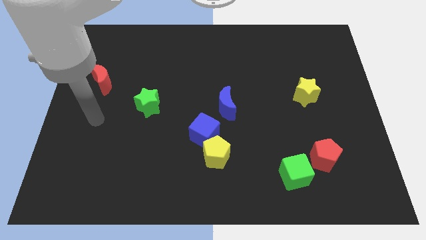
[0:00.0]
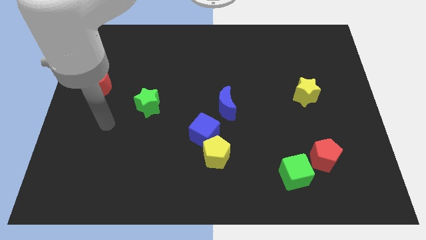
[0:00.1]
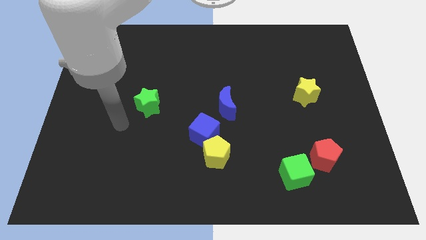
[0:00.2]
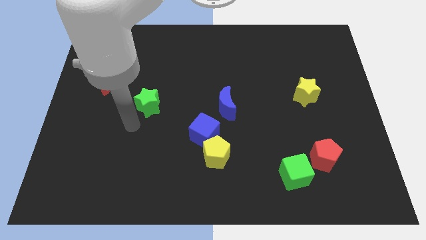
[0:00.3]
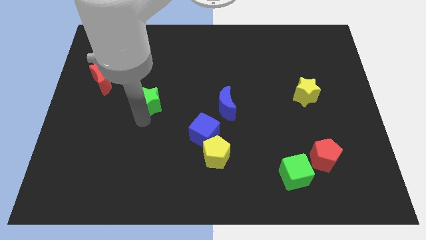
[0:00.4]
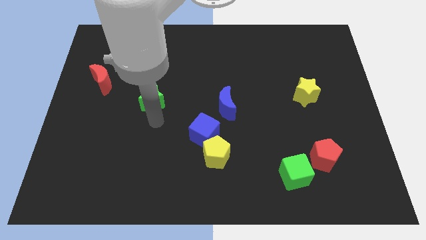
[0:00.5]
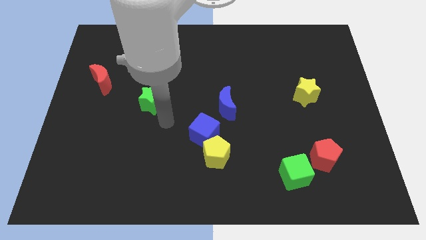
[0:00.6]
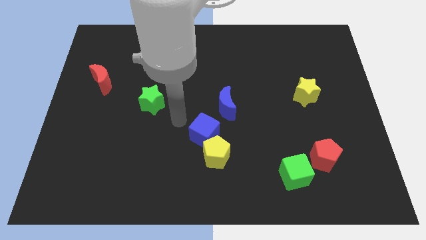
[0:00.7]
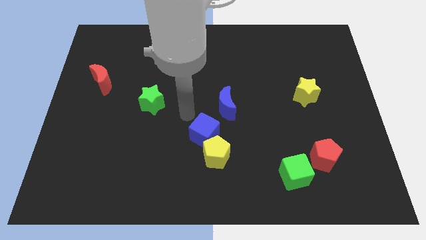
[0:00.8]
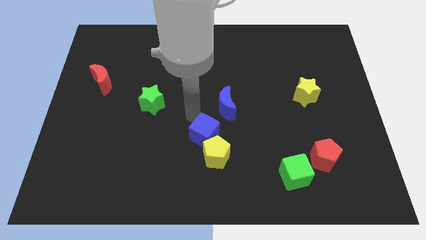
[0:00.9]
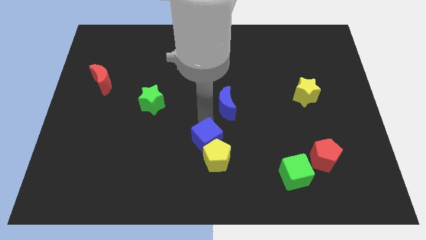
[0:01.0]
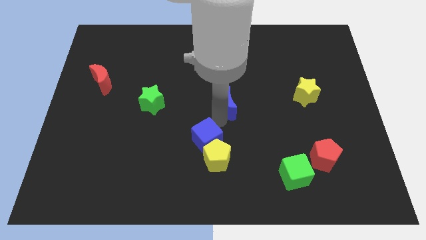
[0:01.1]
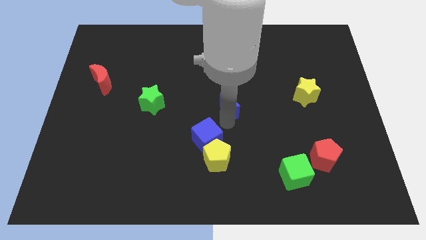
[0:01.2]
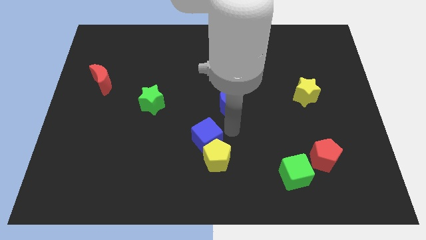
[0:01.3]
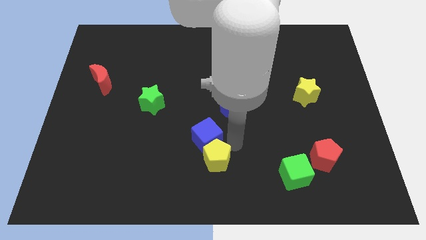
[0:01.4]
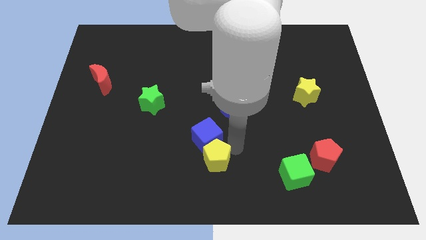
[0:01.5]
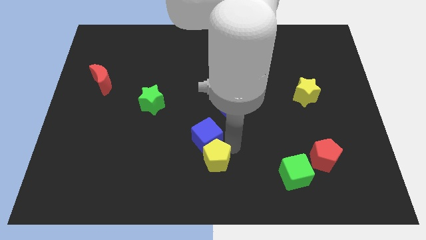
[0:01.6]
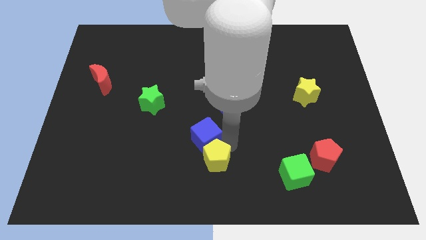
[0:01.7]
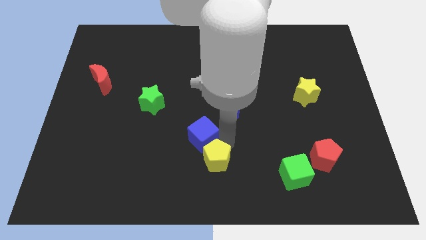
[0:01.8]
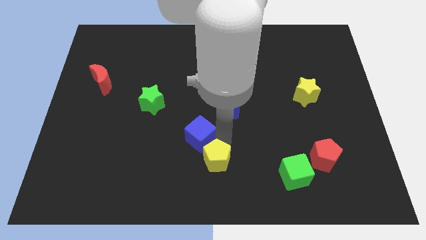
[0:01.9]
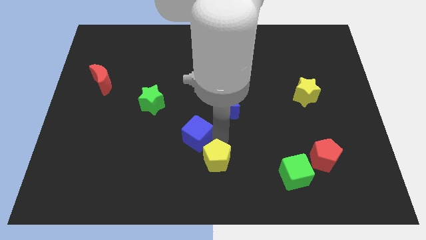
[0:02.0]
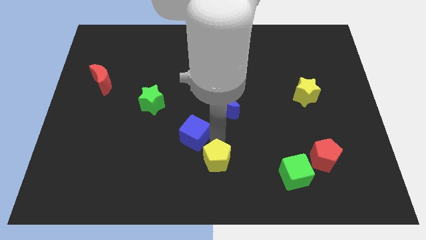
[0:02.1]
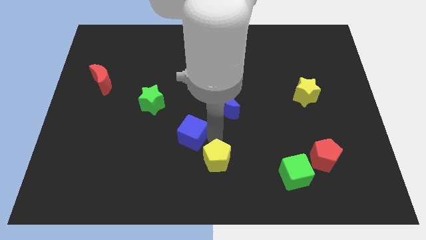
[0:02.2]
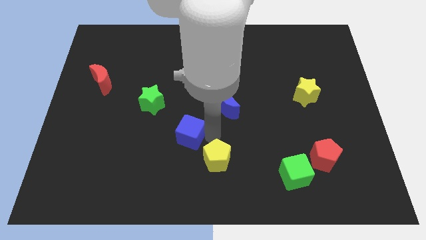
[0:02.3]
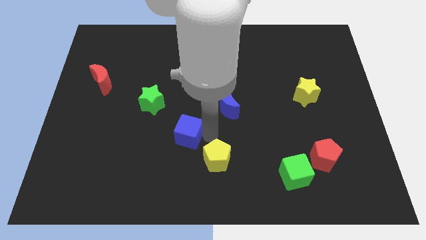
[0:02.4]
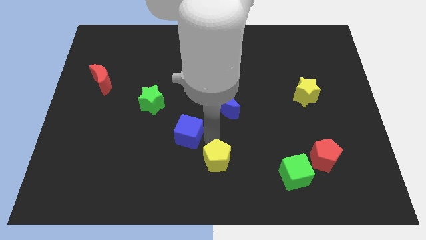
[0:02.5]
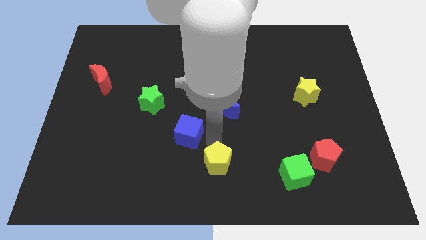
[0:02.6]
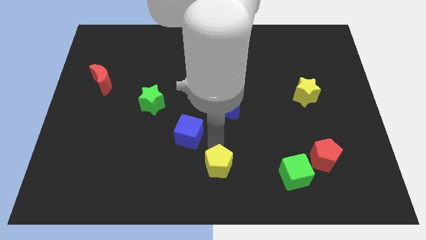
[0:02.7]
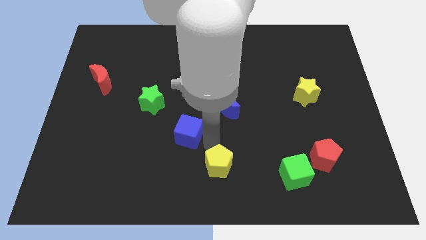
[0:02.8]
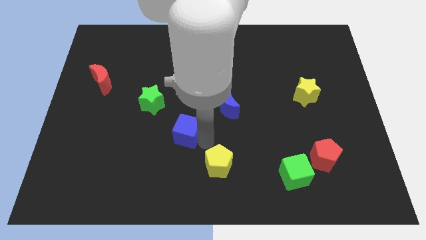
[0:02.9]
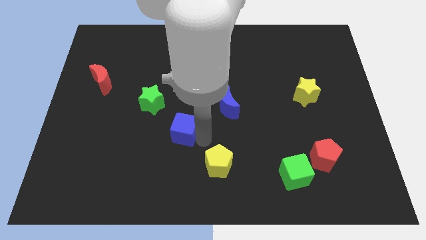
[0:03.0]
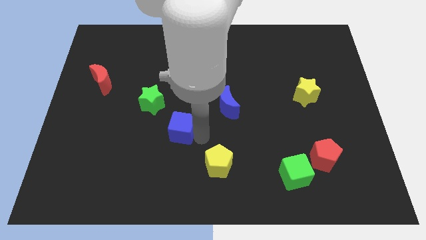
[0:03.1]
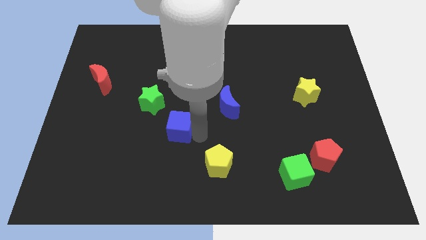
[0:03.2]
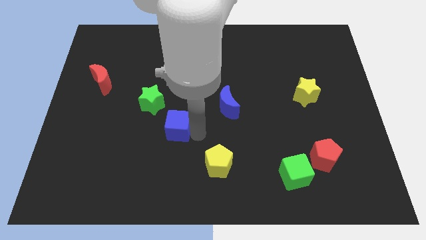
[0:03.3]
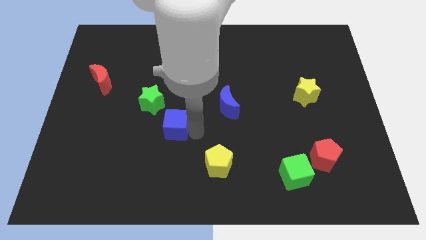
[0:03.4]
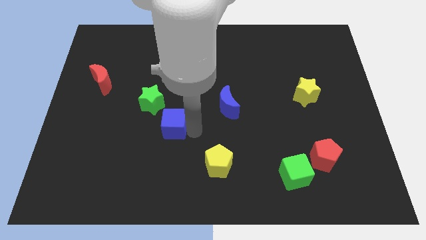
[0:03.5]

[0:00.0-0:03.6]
push the blue cube a little bit left

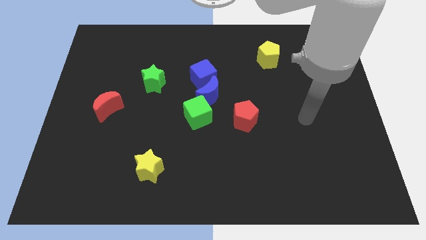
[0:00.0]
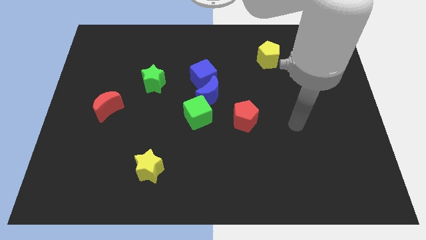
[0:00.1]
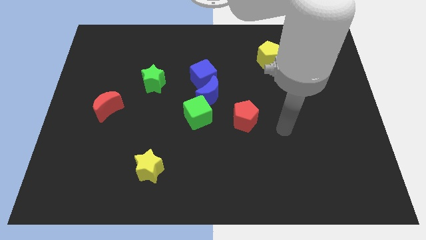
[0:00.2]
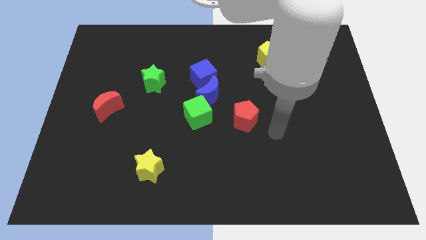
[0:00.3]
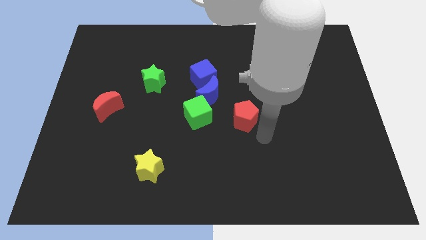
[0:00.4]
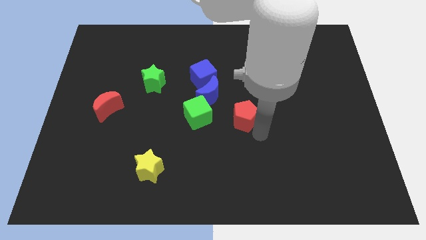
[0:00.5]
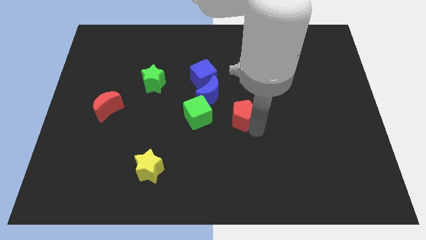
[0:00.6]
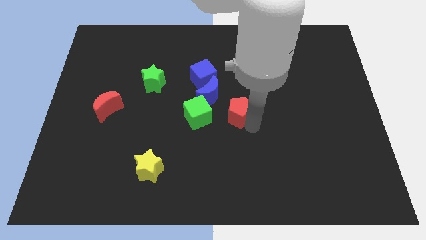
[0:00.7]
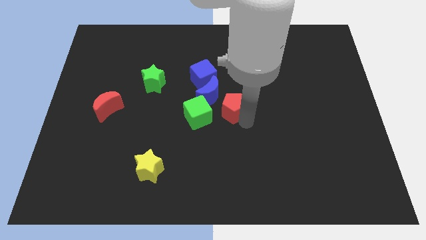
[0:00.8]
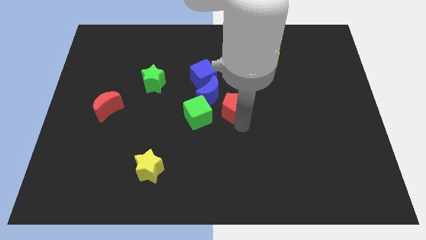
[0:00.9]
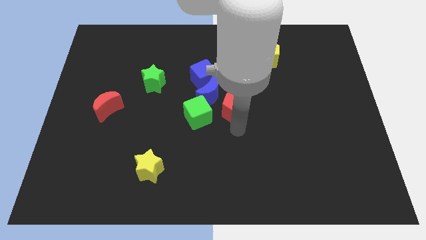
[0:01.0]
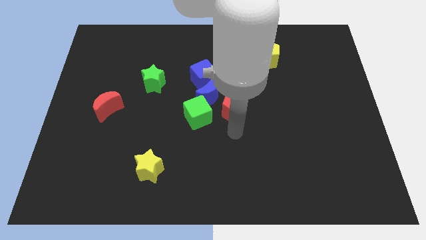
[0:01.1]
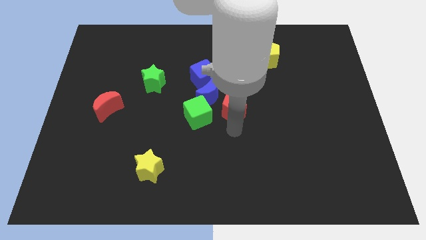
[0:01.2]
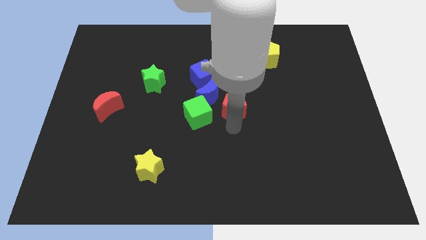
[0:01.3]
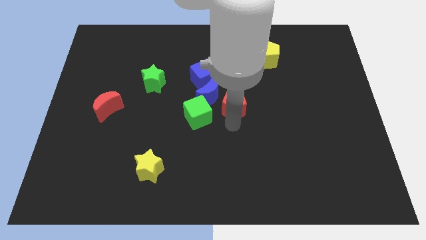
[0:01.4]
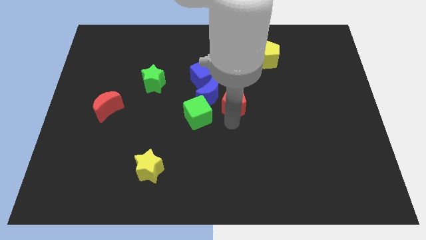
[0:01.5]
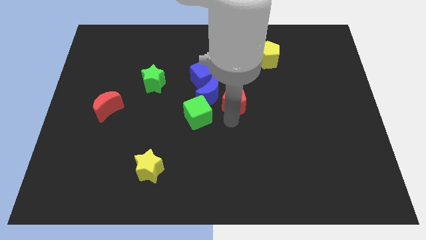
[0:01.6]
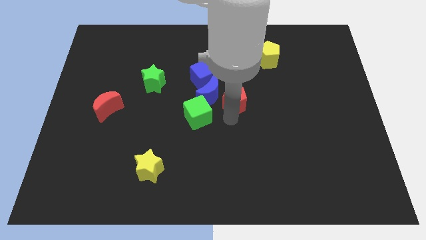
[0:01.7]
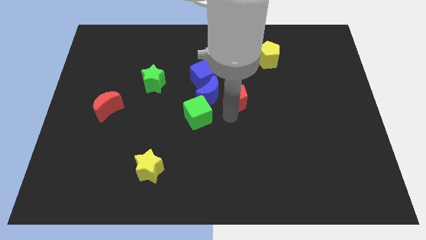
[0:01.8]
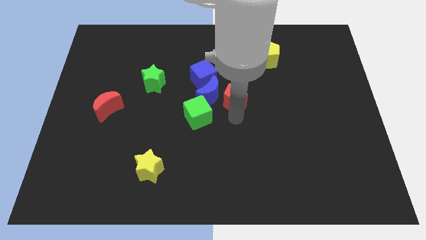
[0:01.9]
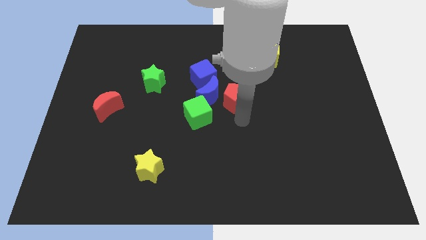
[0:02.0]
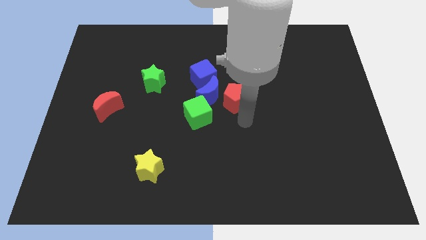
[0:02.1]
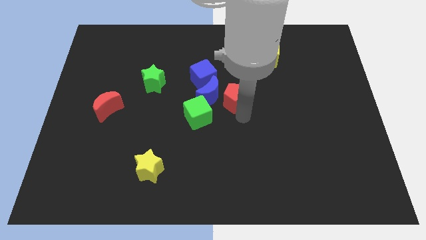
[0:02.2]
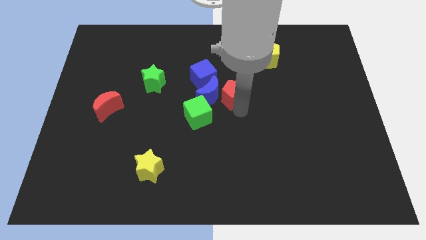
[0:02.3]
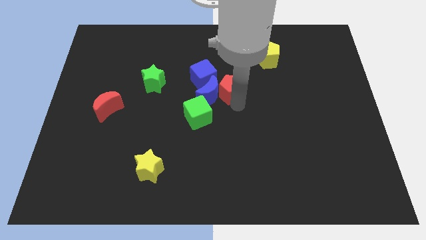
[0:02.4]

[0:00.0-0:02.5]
push the red pentagon upwards and then to the left a little bit

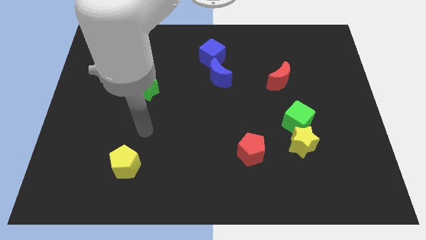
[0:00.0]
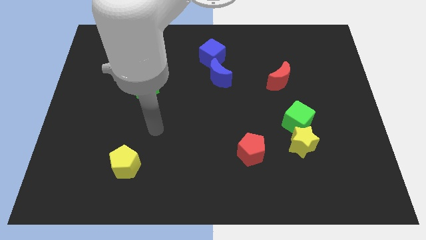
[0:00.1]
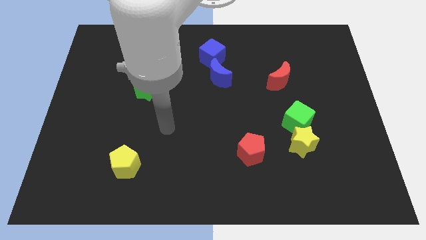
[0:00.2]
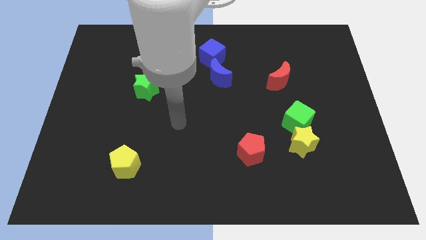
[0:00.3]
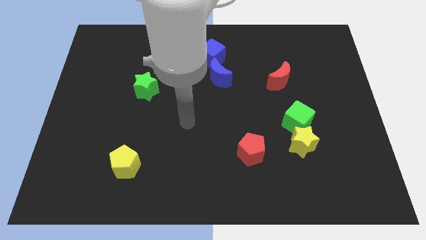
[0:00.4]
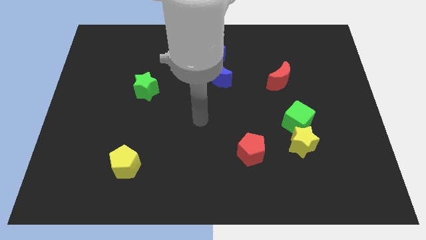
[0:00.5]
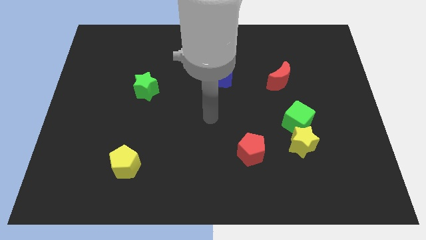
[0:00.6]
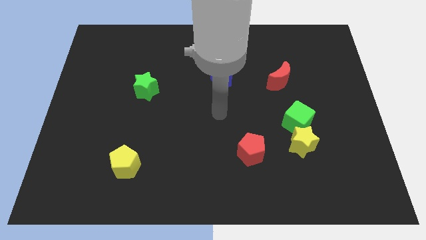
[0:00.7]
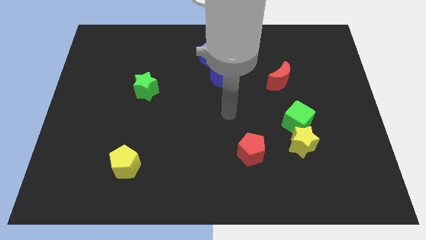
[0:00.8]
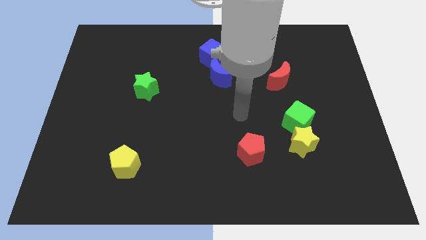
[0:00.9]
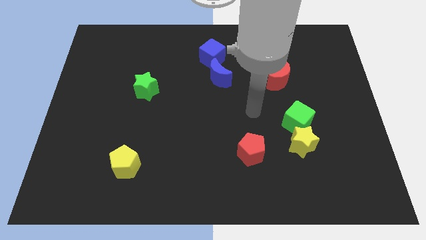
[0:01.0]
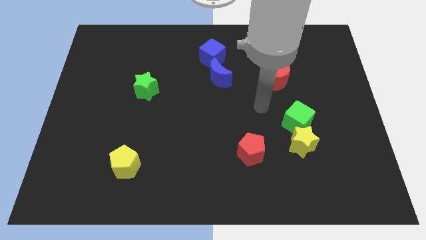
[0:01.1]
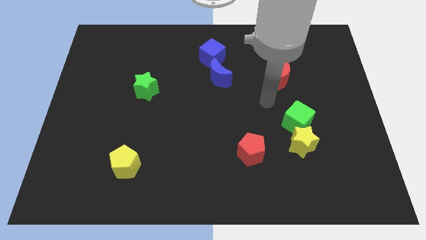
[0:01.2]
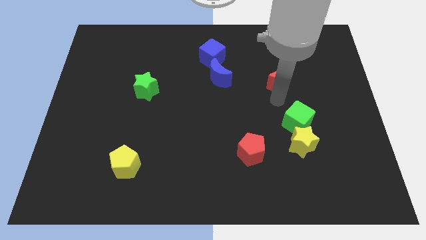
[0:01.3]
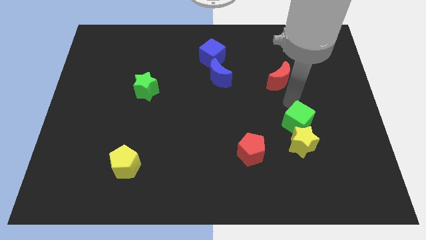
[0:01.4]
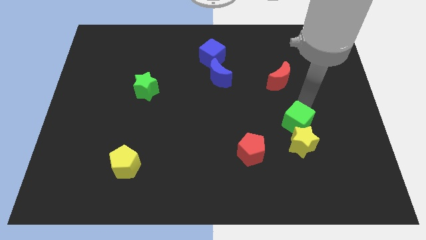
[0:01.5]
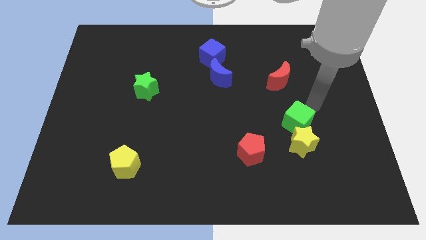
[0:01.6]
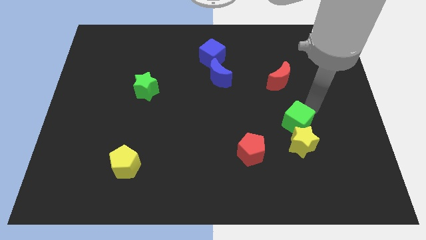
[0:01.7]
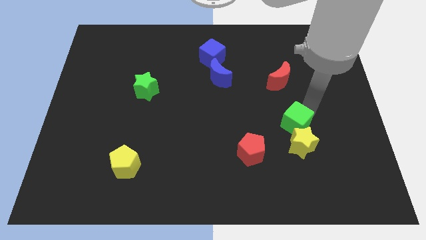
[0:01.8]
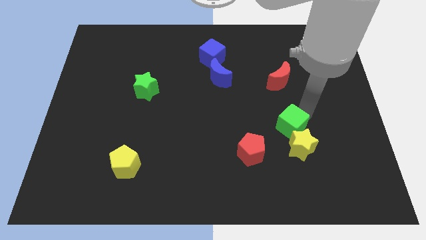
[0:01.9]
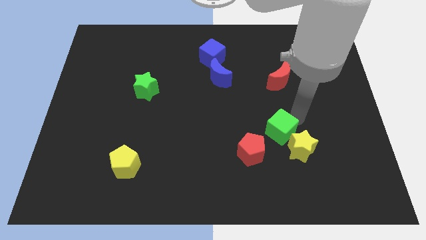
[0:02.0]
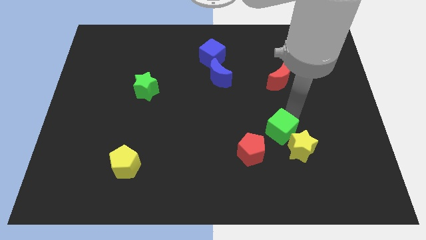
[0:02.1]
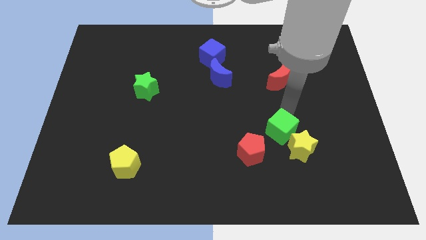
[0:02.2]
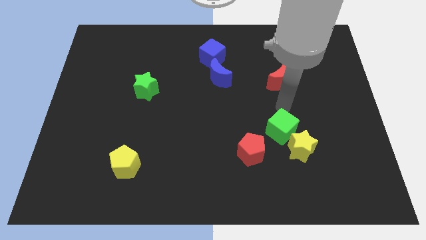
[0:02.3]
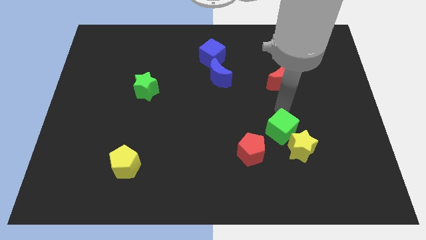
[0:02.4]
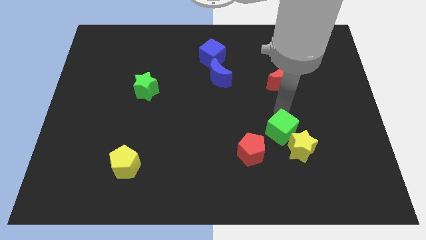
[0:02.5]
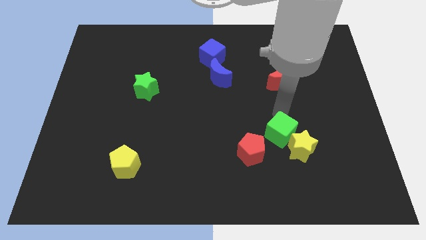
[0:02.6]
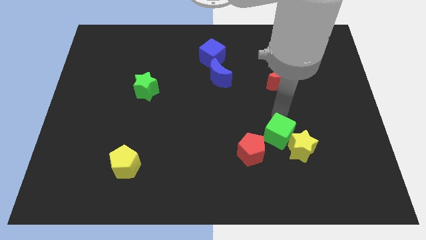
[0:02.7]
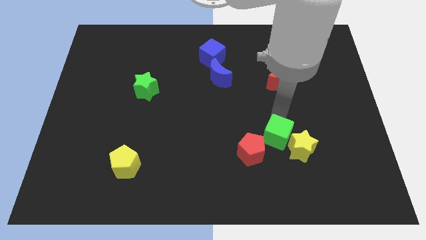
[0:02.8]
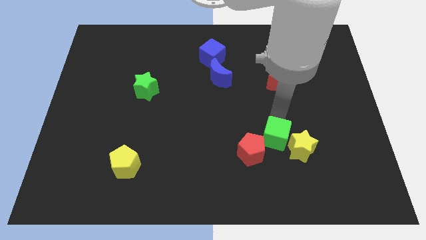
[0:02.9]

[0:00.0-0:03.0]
push the green cube a bit diagonally downwards and to the left
